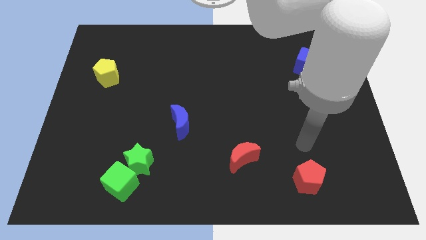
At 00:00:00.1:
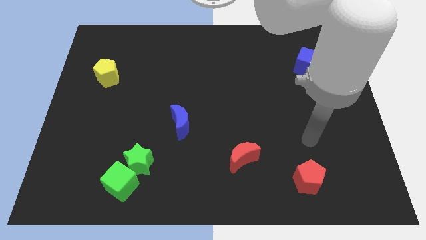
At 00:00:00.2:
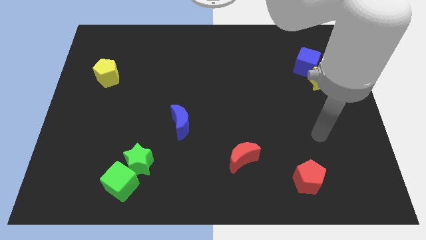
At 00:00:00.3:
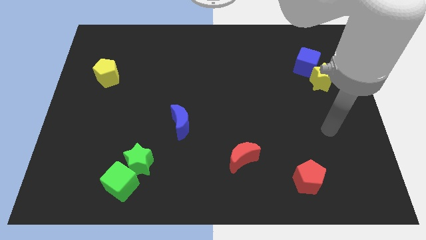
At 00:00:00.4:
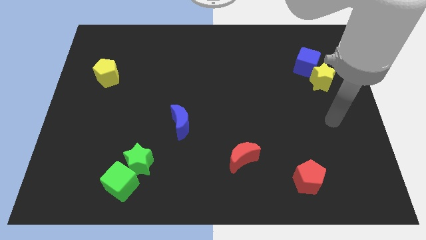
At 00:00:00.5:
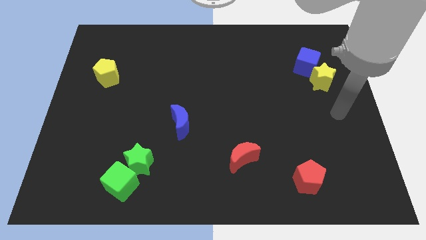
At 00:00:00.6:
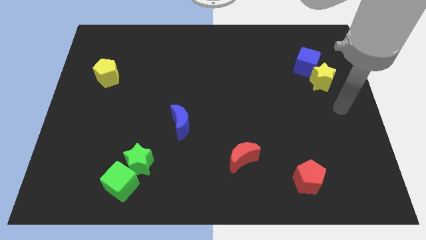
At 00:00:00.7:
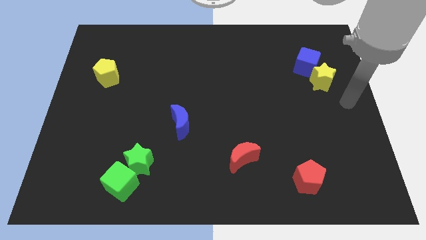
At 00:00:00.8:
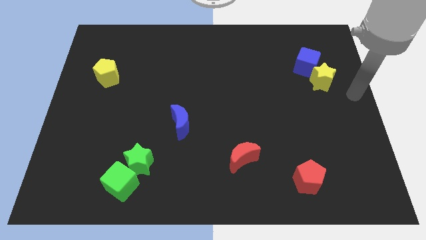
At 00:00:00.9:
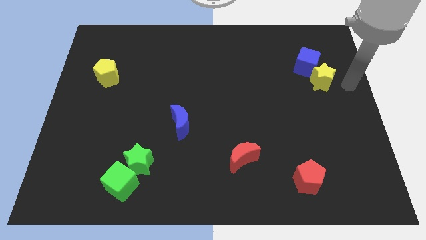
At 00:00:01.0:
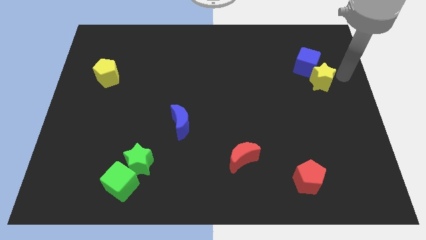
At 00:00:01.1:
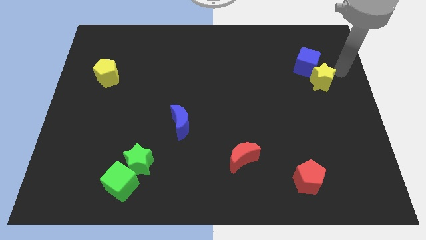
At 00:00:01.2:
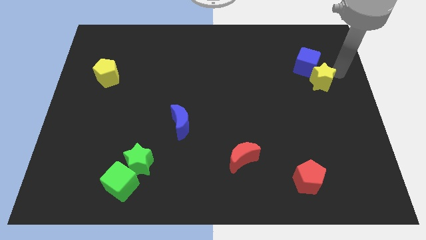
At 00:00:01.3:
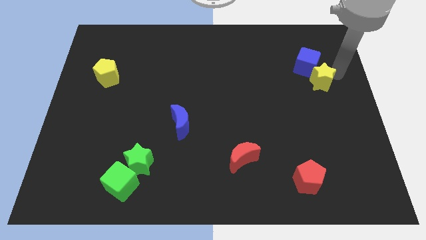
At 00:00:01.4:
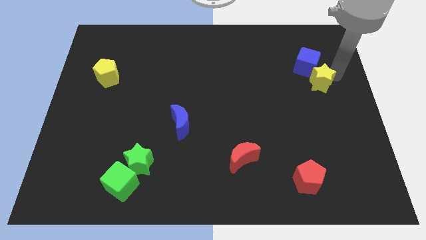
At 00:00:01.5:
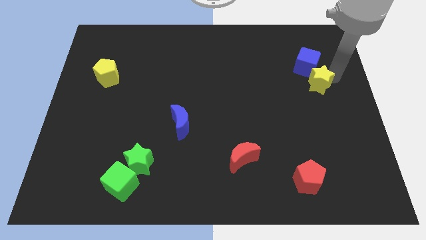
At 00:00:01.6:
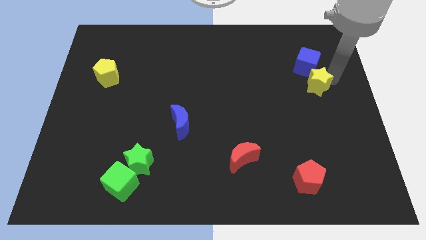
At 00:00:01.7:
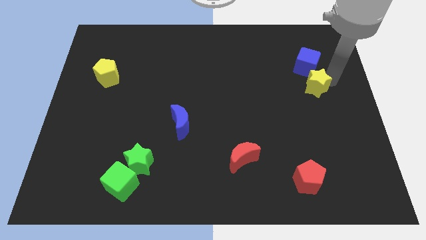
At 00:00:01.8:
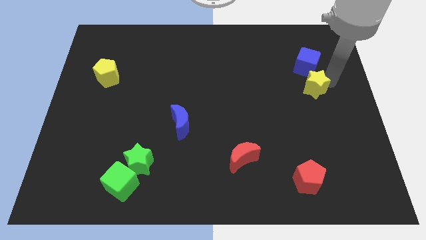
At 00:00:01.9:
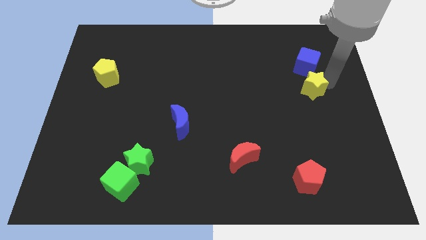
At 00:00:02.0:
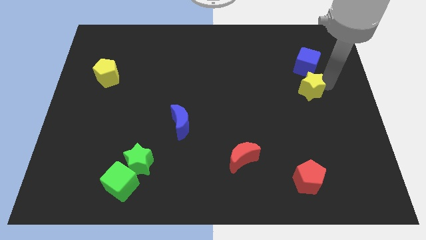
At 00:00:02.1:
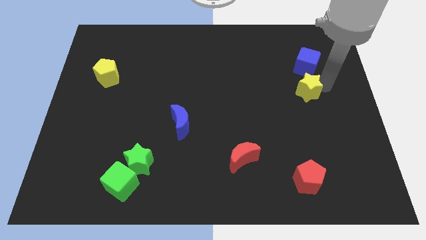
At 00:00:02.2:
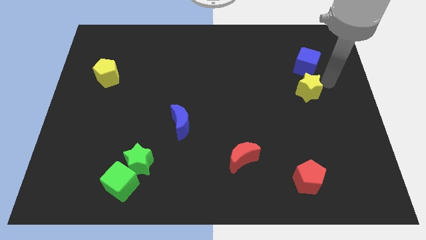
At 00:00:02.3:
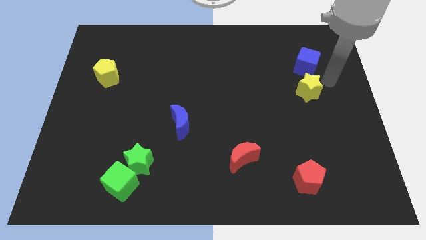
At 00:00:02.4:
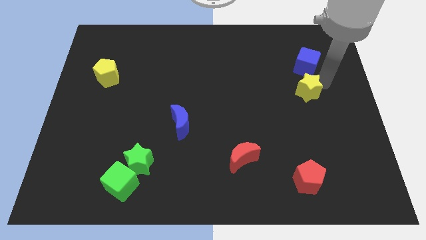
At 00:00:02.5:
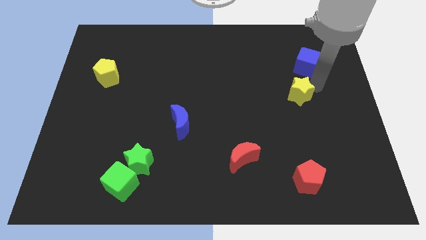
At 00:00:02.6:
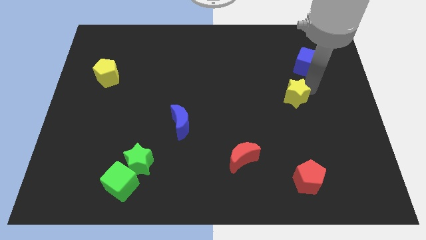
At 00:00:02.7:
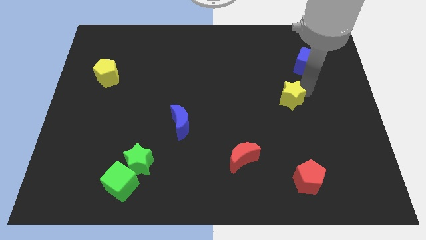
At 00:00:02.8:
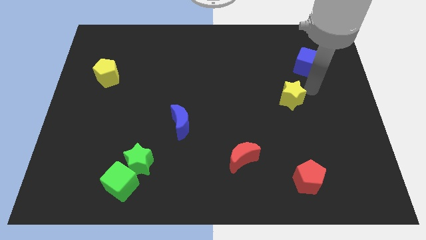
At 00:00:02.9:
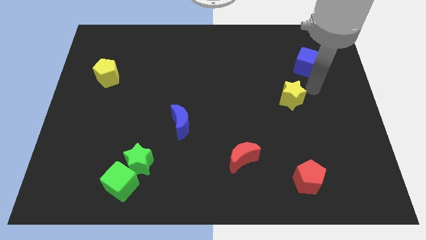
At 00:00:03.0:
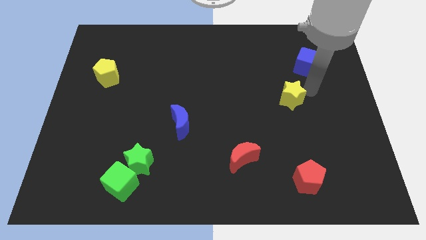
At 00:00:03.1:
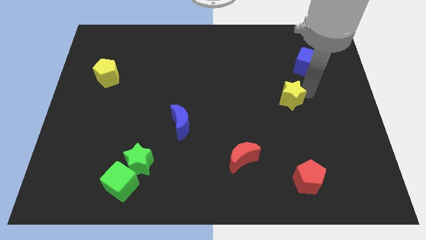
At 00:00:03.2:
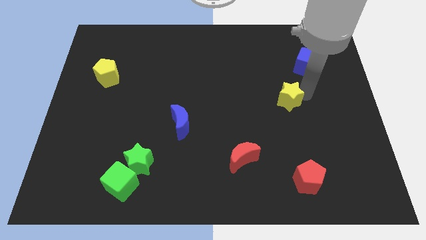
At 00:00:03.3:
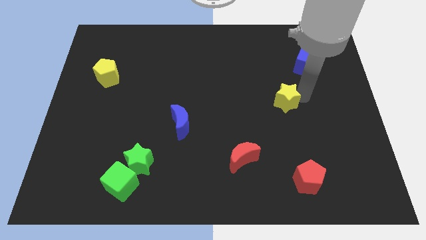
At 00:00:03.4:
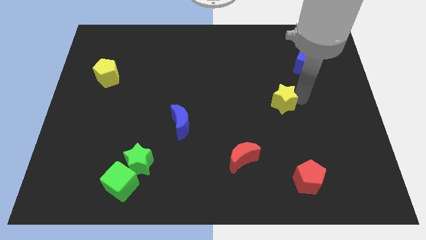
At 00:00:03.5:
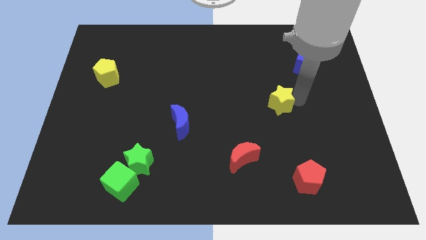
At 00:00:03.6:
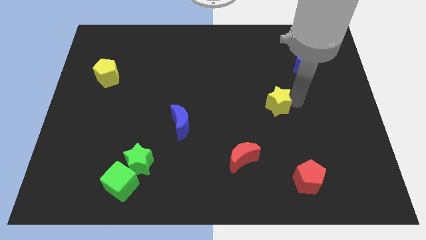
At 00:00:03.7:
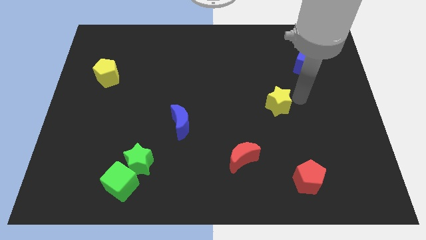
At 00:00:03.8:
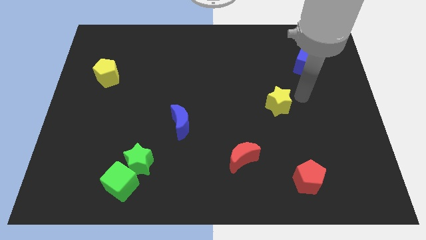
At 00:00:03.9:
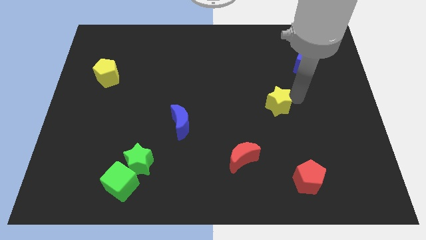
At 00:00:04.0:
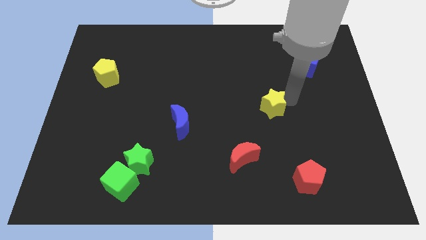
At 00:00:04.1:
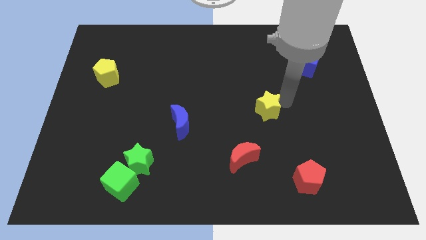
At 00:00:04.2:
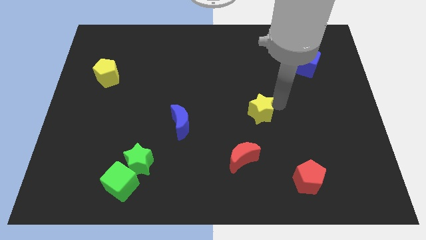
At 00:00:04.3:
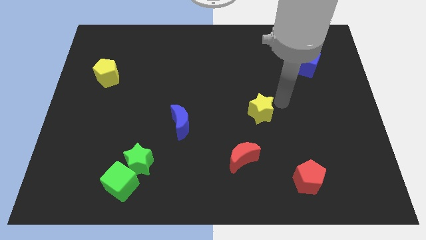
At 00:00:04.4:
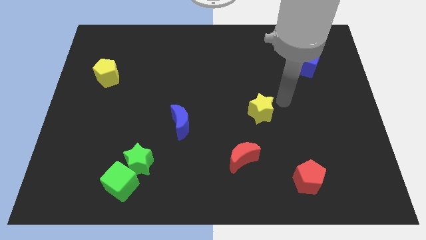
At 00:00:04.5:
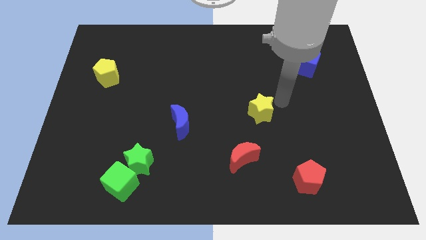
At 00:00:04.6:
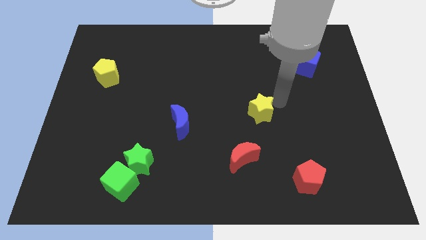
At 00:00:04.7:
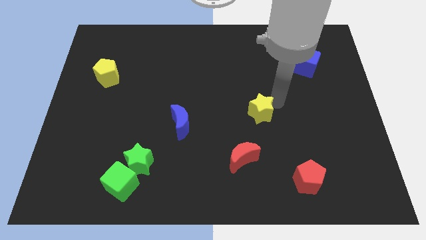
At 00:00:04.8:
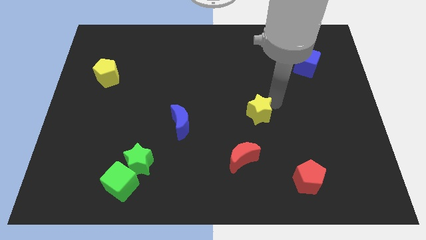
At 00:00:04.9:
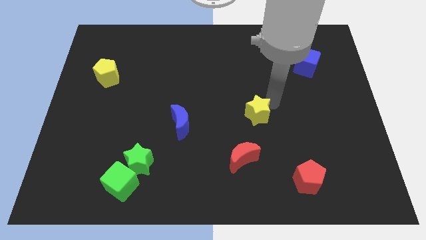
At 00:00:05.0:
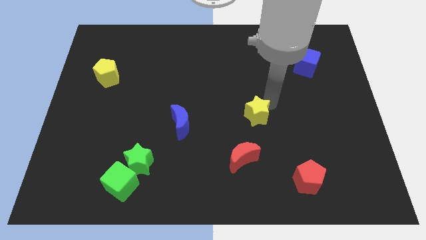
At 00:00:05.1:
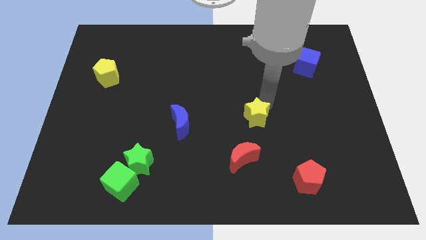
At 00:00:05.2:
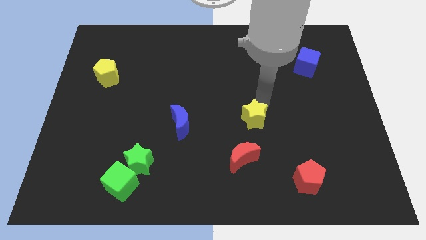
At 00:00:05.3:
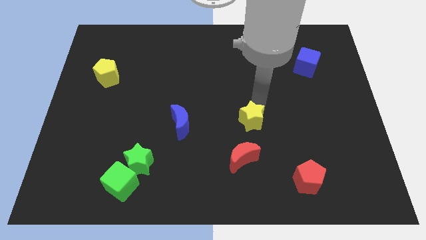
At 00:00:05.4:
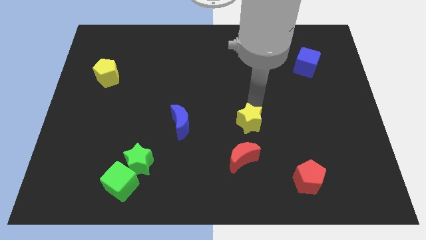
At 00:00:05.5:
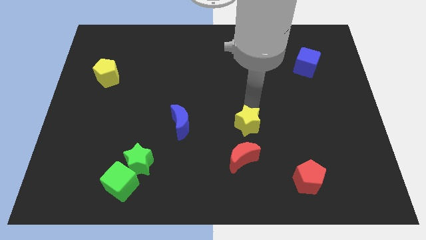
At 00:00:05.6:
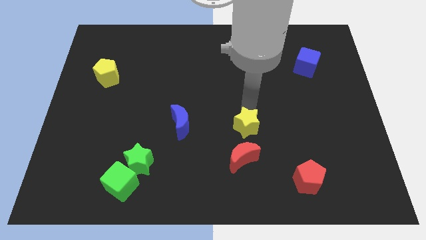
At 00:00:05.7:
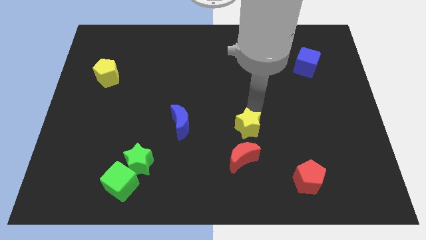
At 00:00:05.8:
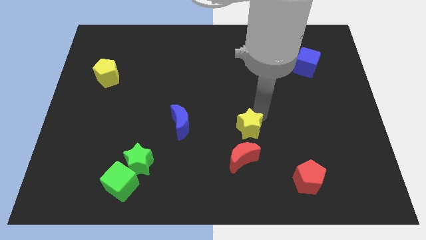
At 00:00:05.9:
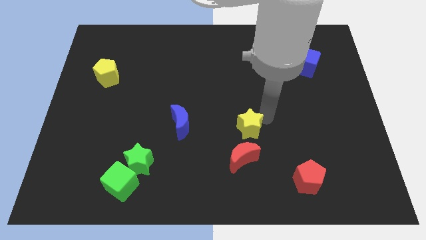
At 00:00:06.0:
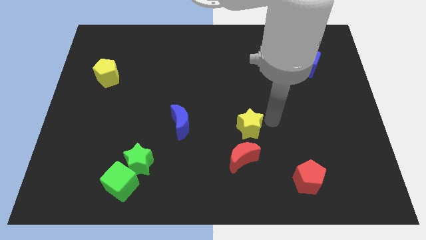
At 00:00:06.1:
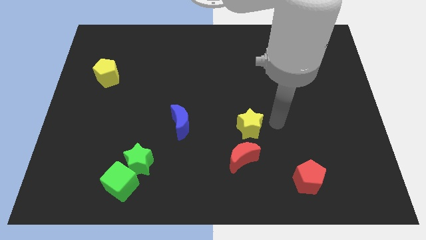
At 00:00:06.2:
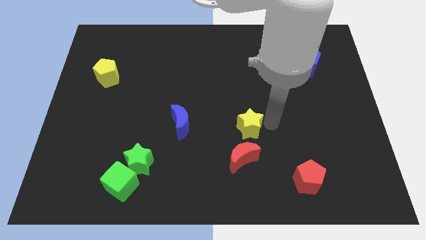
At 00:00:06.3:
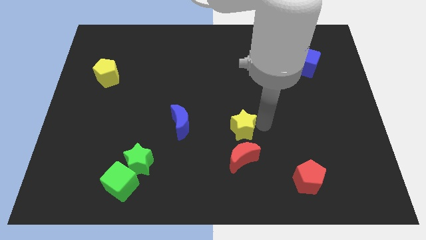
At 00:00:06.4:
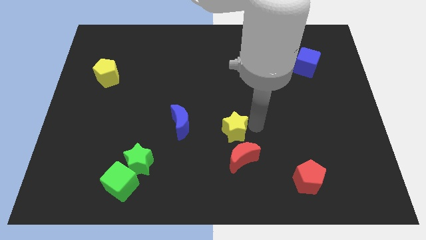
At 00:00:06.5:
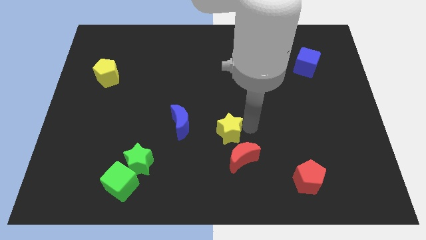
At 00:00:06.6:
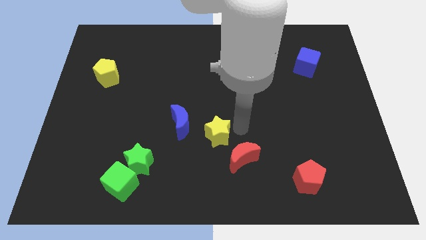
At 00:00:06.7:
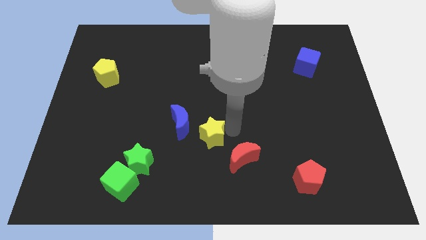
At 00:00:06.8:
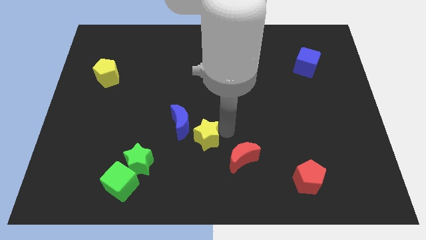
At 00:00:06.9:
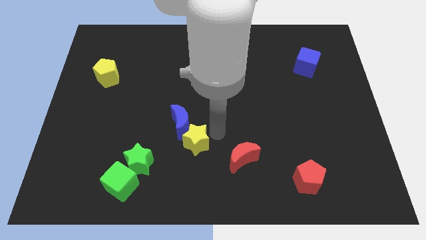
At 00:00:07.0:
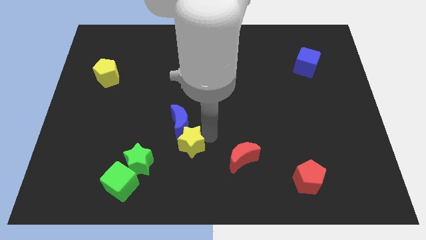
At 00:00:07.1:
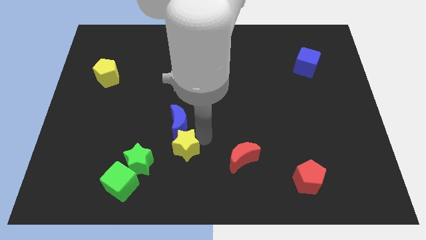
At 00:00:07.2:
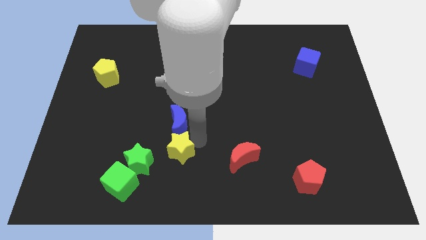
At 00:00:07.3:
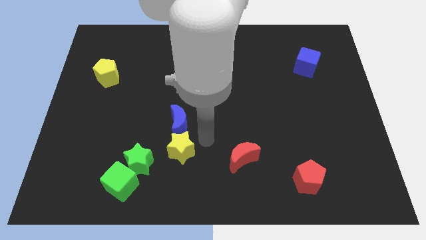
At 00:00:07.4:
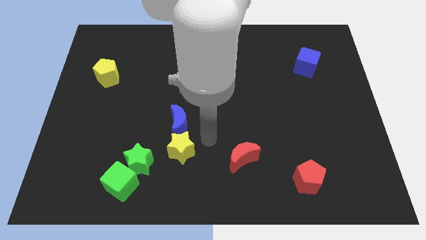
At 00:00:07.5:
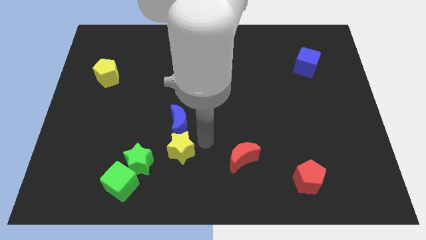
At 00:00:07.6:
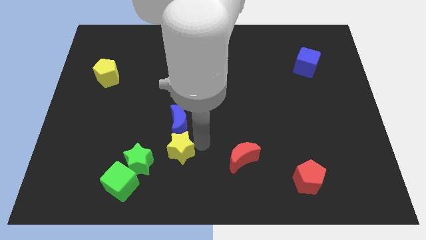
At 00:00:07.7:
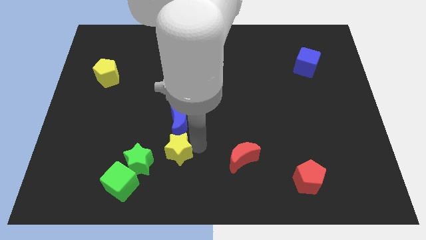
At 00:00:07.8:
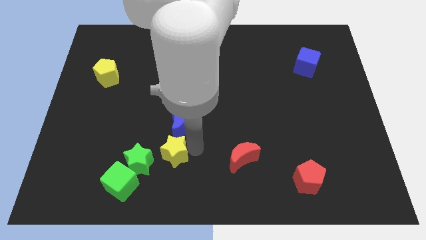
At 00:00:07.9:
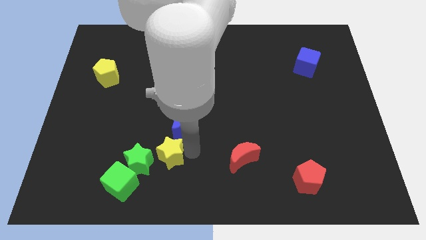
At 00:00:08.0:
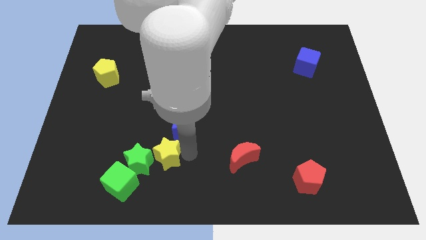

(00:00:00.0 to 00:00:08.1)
move the yellow star close to the green star
